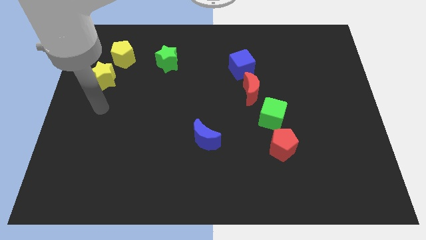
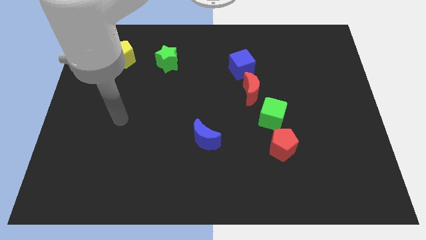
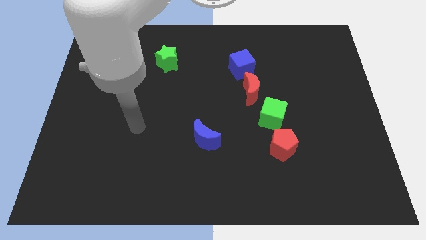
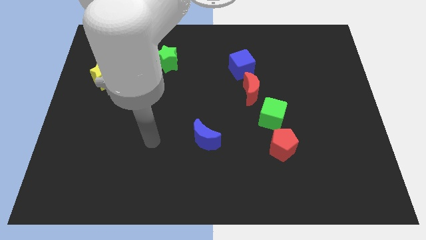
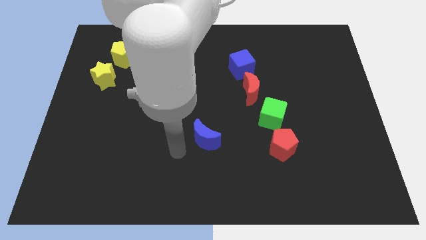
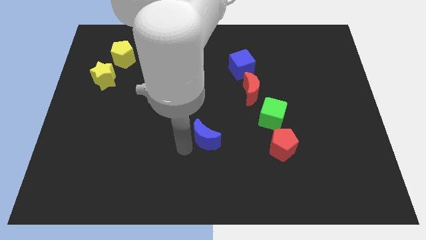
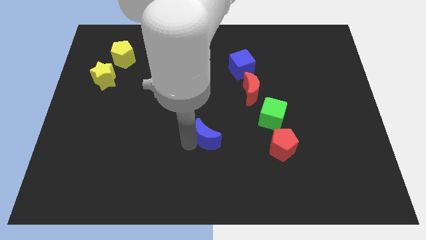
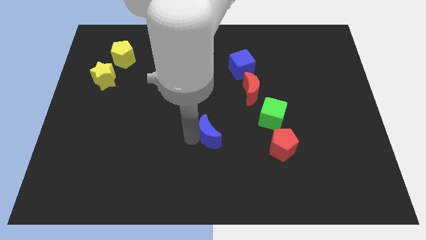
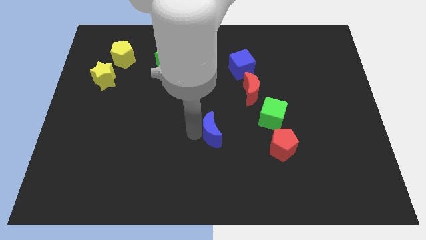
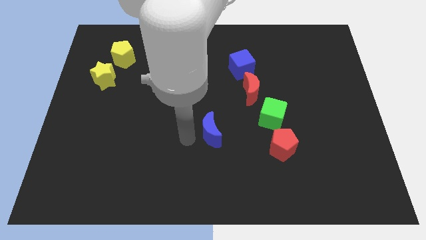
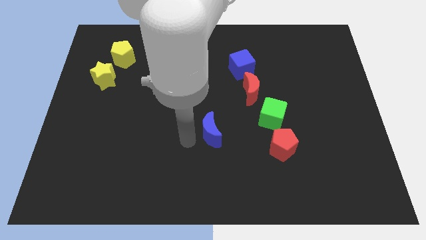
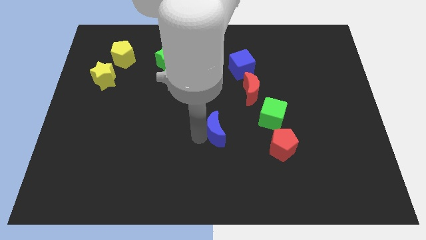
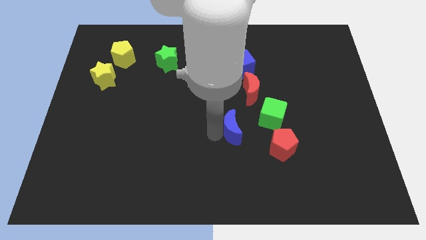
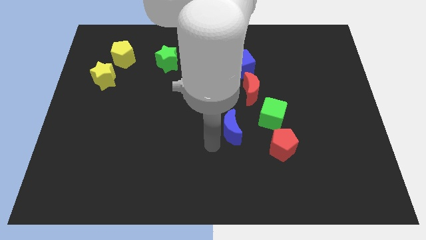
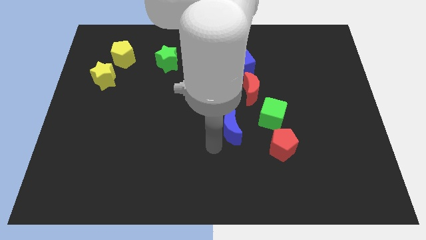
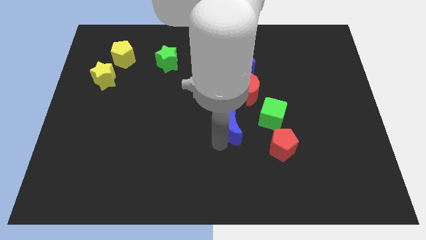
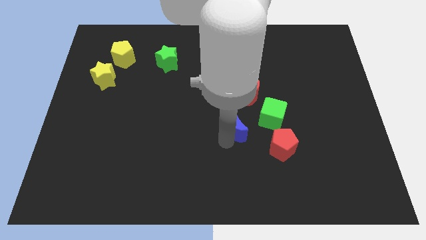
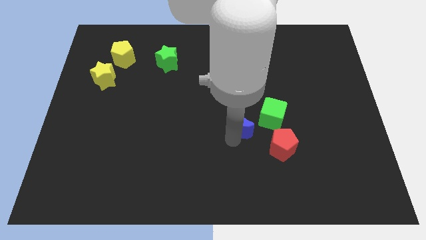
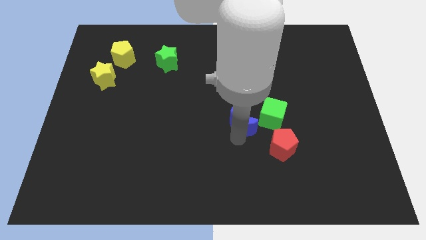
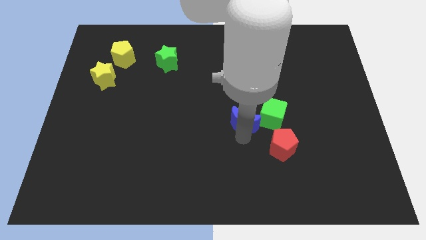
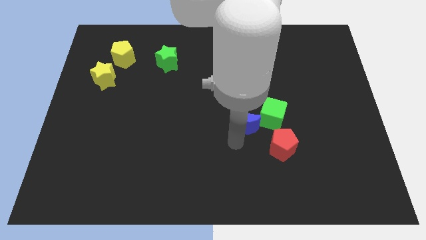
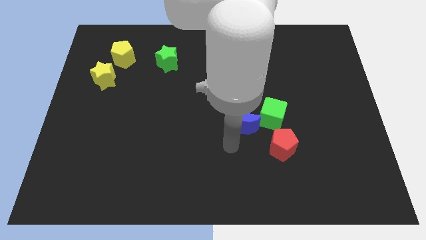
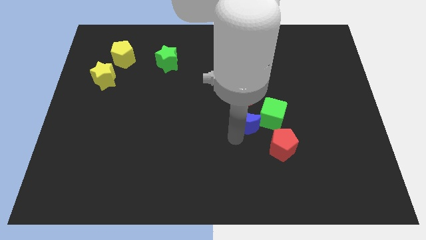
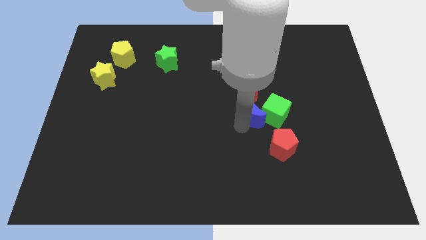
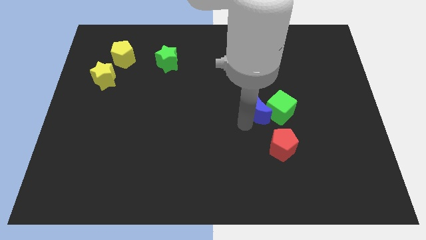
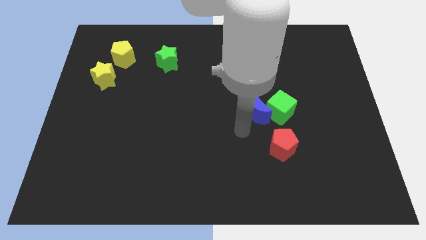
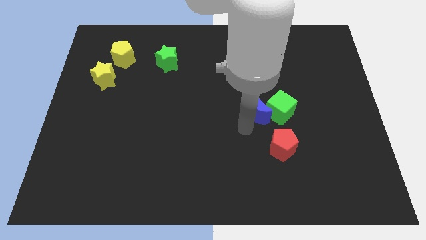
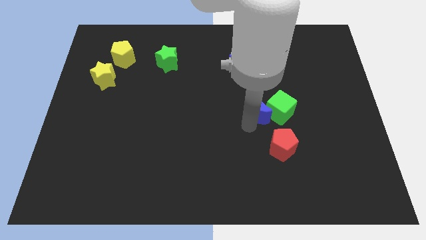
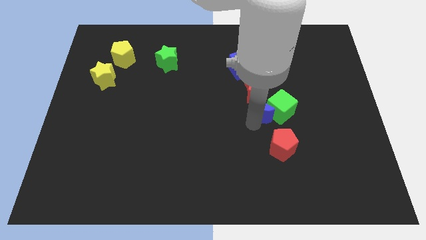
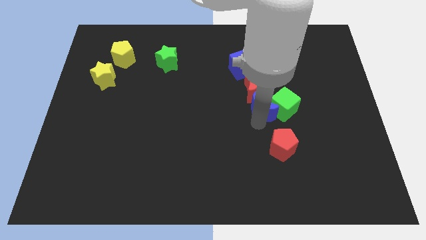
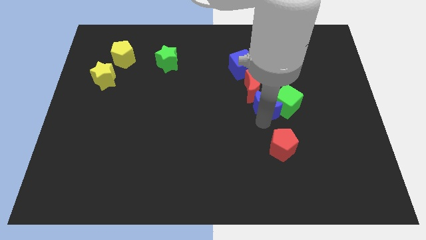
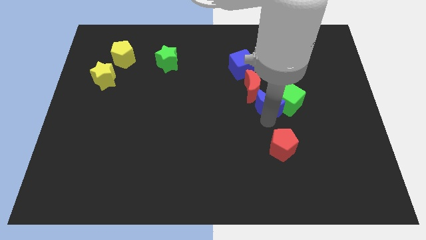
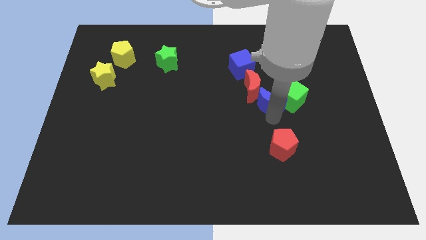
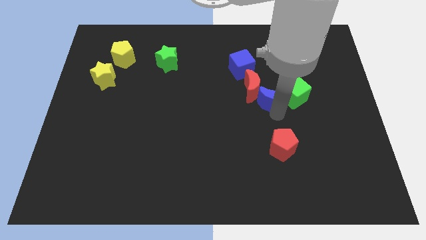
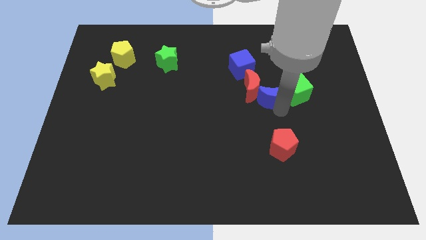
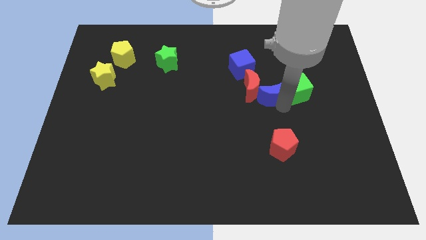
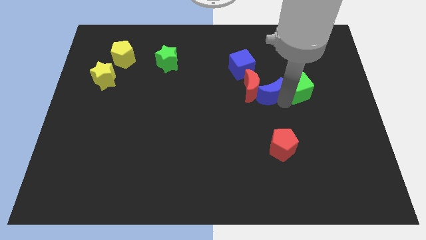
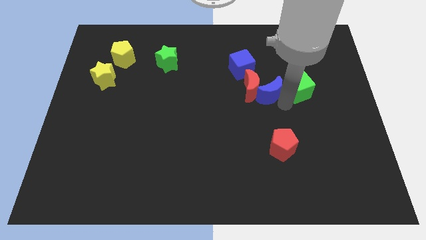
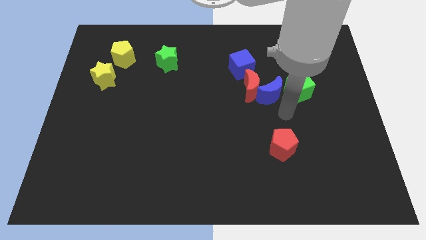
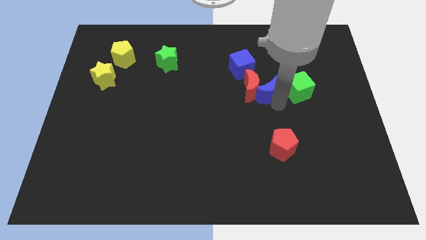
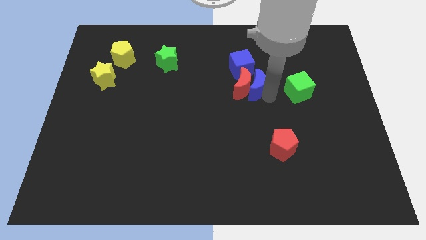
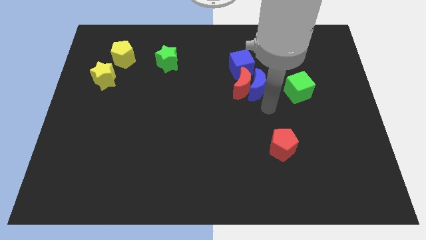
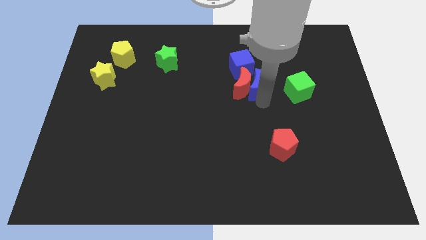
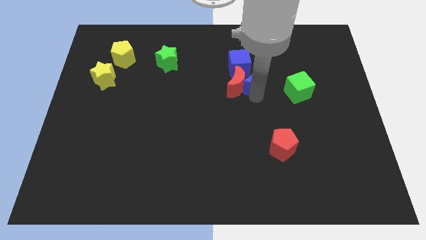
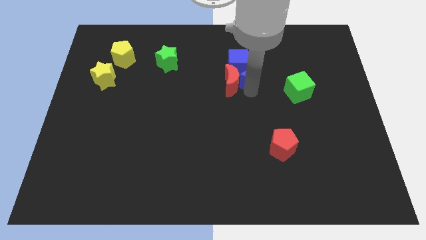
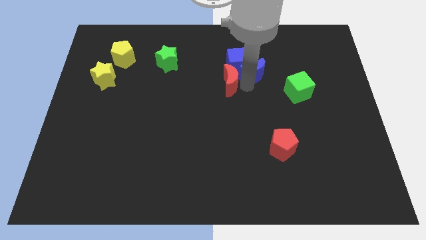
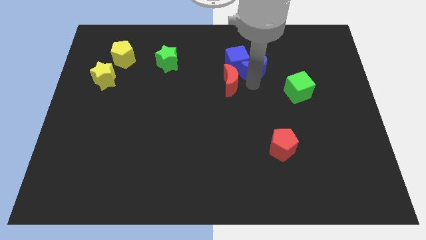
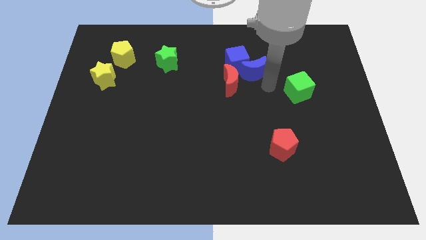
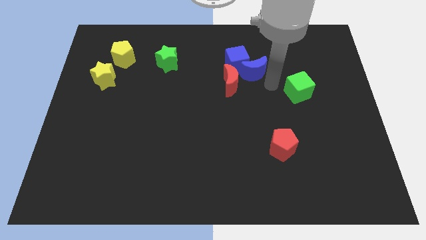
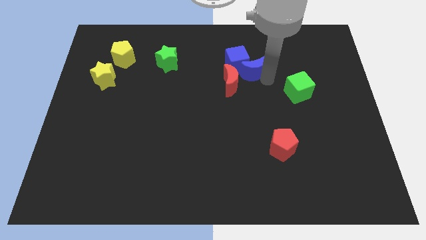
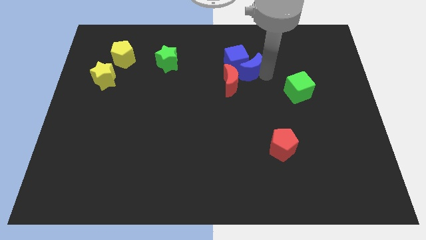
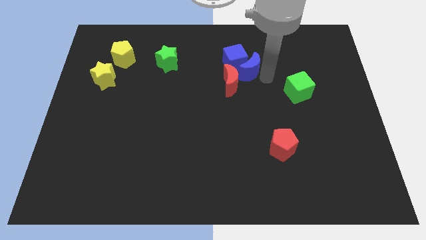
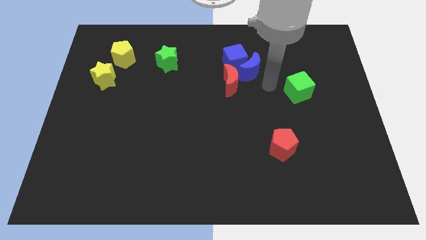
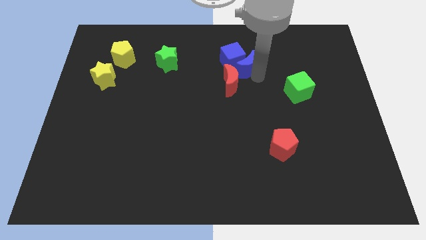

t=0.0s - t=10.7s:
move the blue moon above the red moon

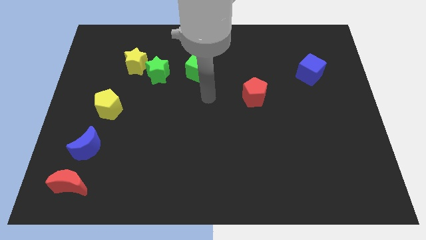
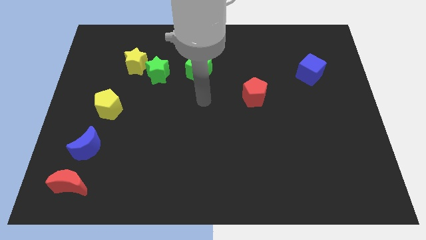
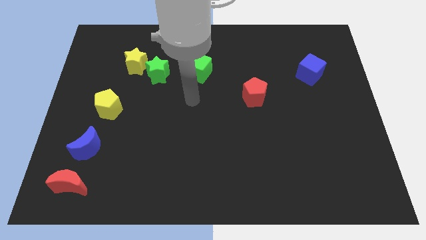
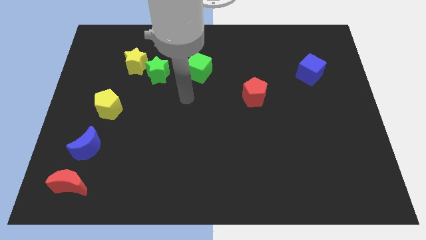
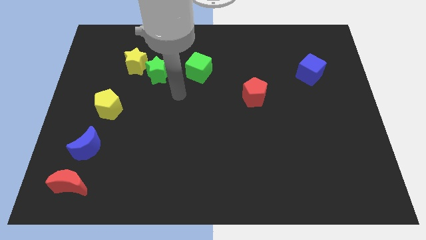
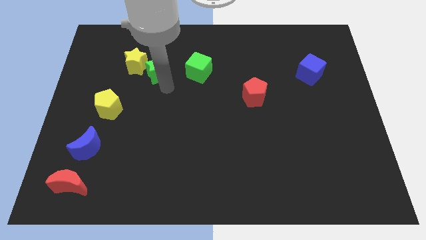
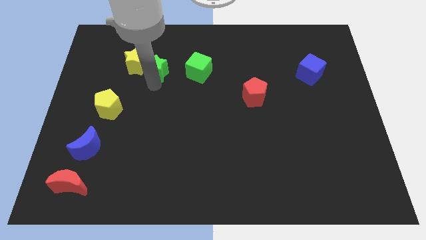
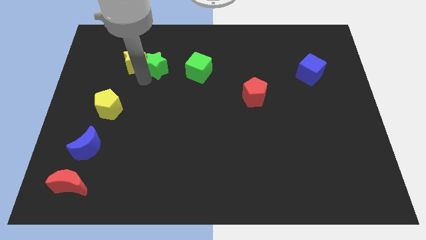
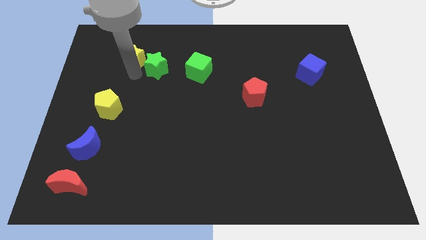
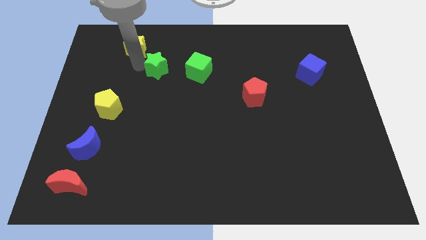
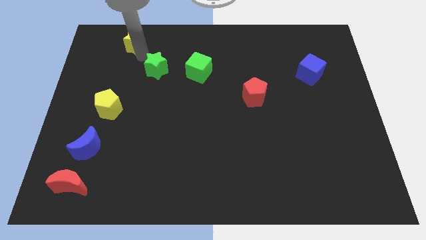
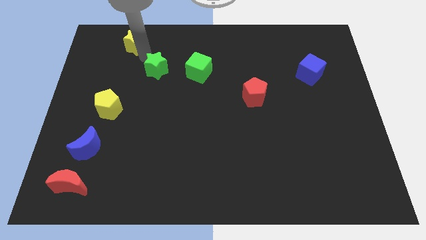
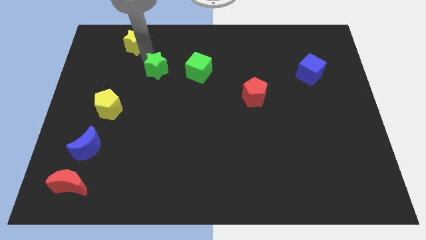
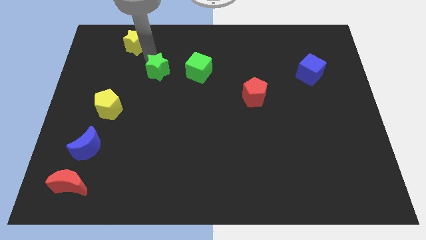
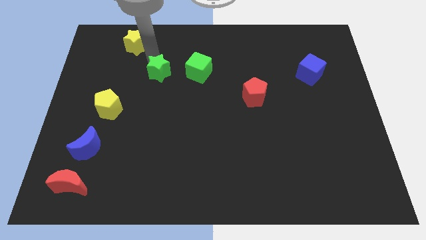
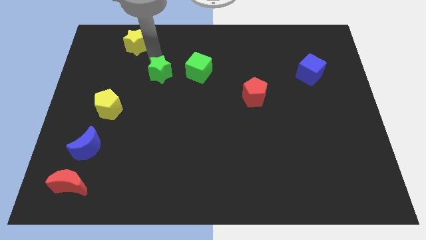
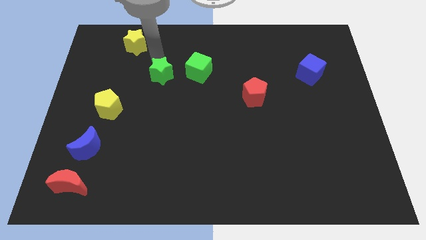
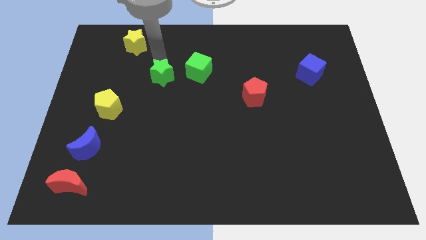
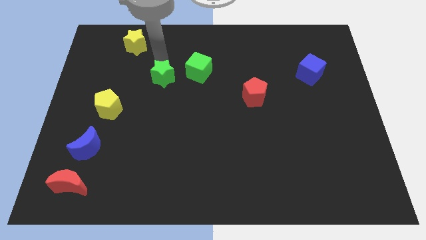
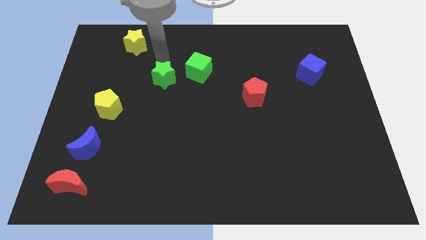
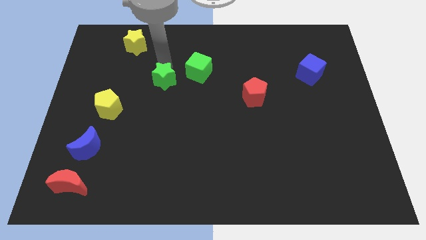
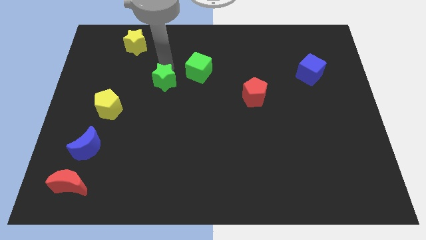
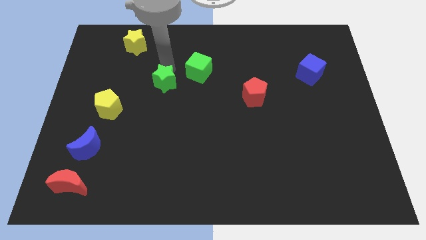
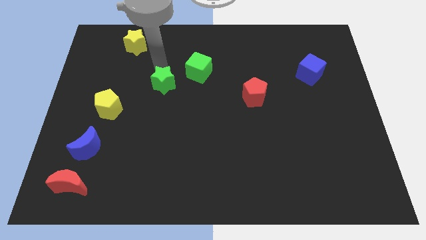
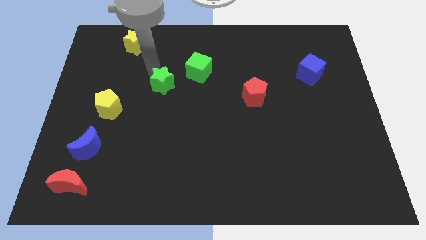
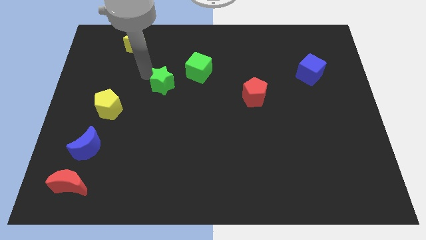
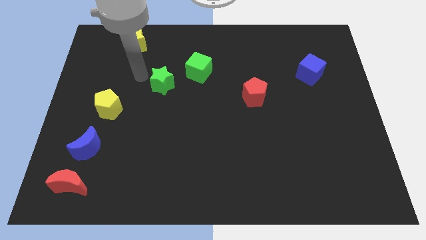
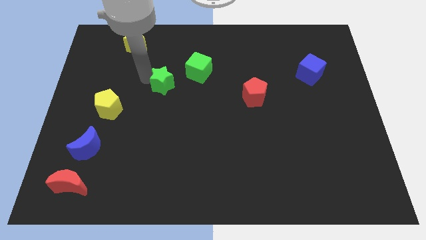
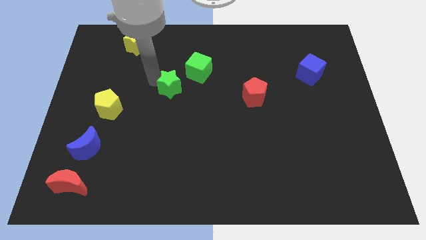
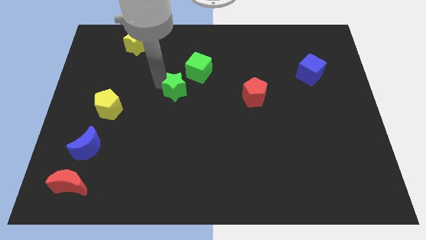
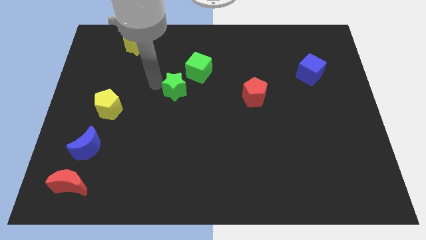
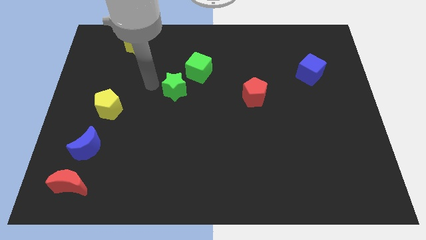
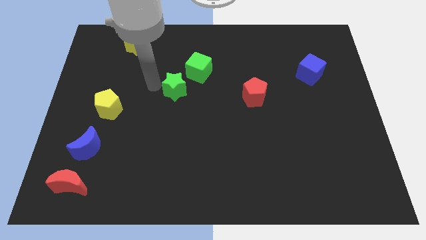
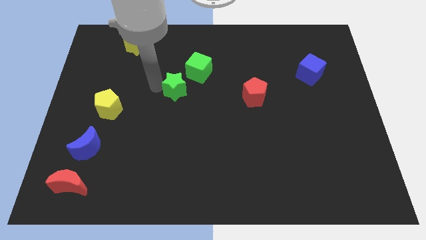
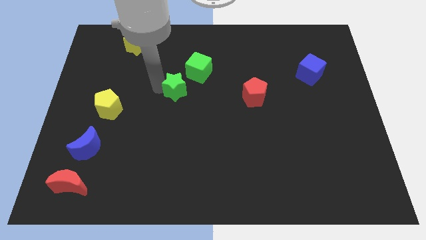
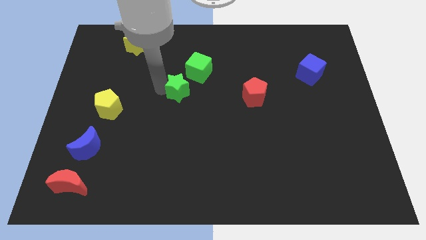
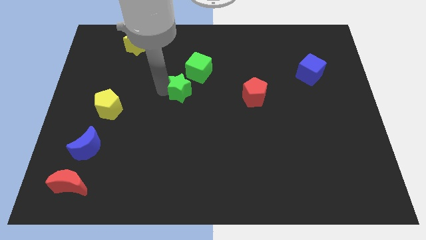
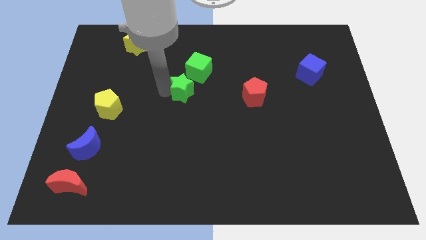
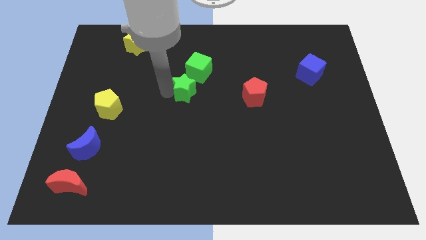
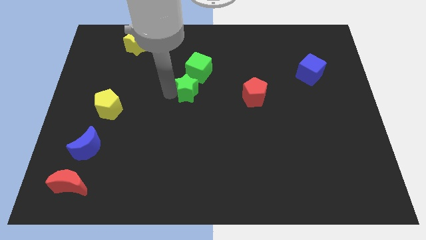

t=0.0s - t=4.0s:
put the green star to the left of the red pentagon
